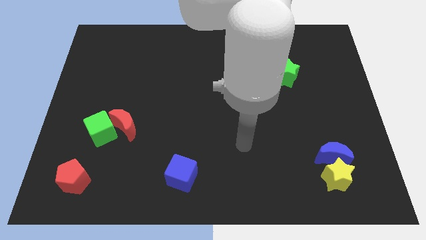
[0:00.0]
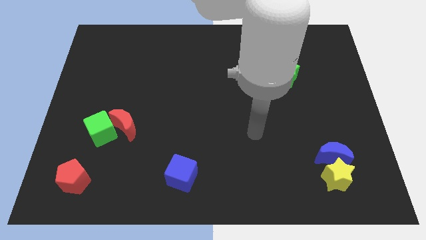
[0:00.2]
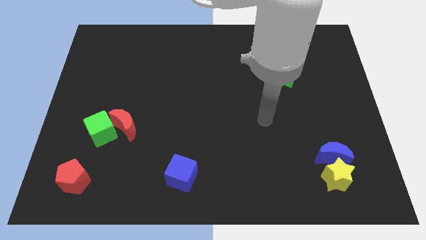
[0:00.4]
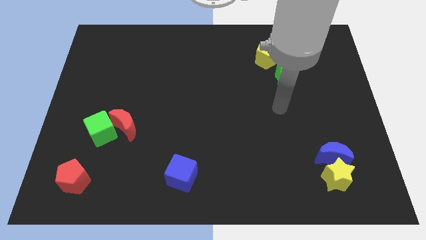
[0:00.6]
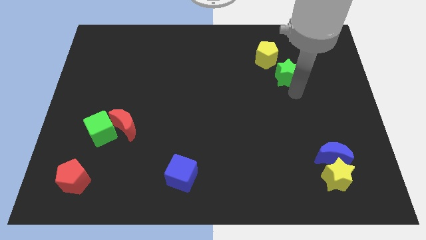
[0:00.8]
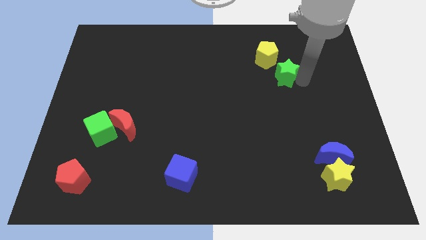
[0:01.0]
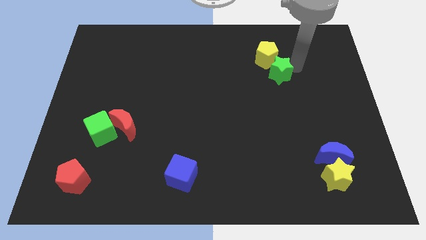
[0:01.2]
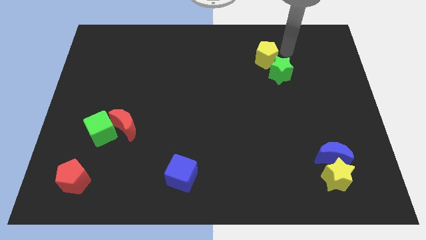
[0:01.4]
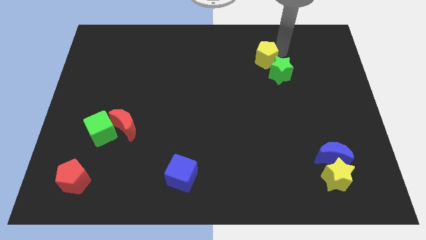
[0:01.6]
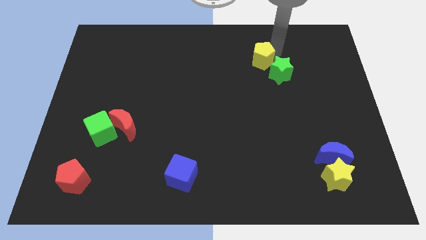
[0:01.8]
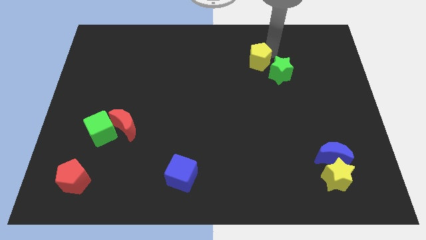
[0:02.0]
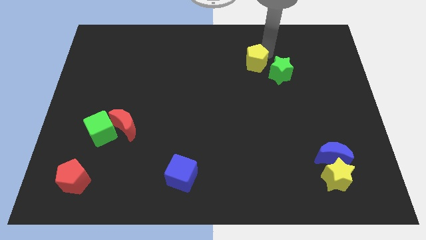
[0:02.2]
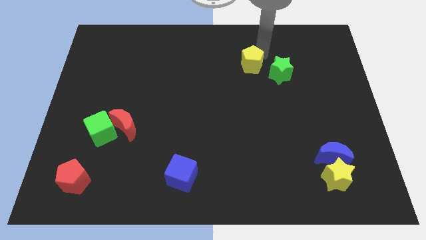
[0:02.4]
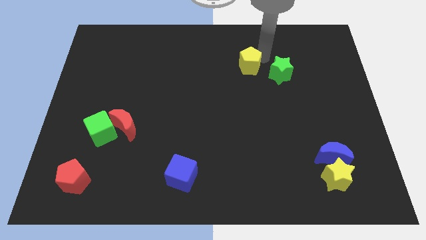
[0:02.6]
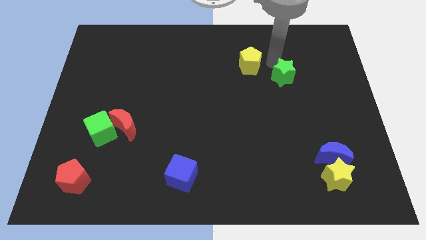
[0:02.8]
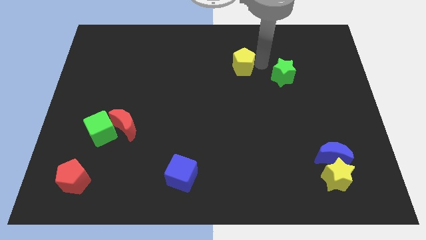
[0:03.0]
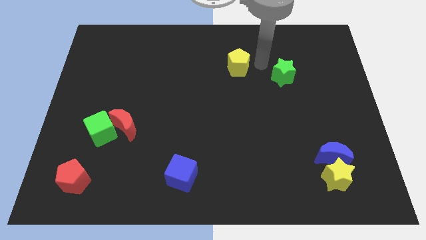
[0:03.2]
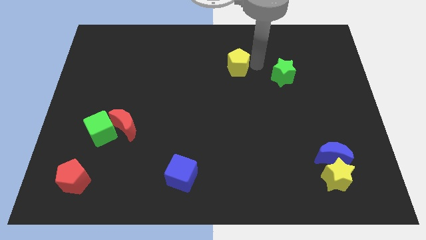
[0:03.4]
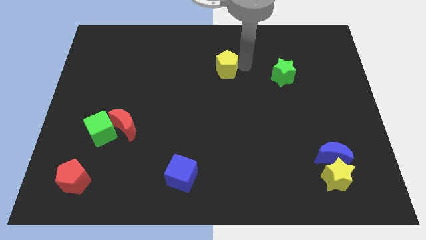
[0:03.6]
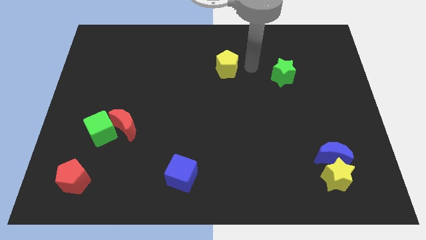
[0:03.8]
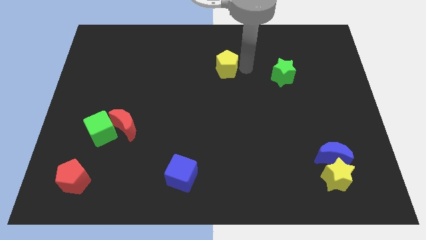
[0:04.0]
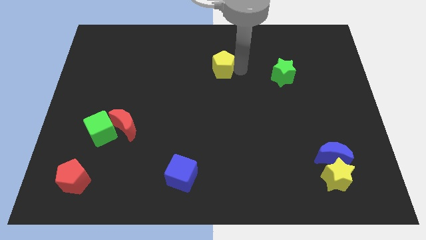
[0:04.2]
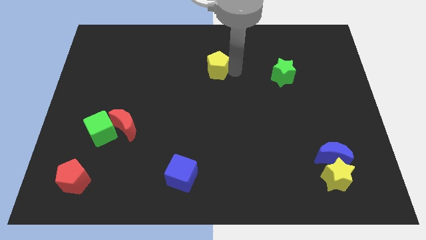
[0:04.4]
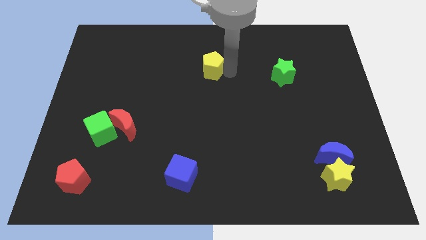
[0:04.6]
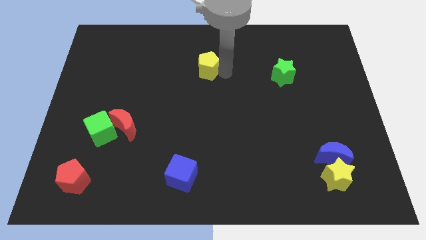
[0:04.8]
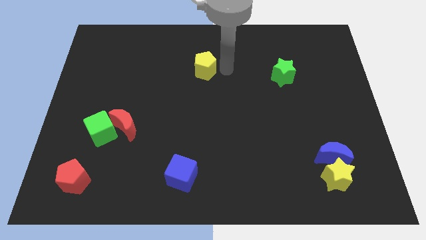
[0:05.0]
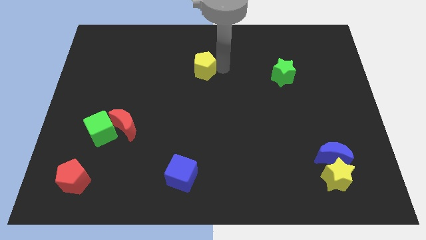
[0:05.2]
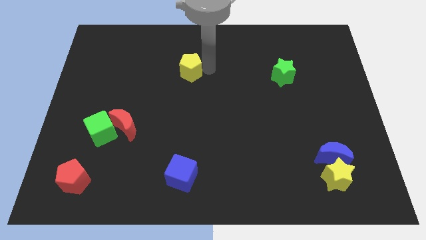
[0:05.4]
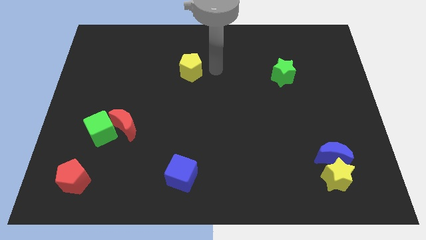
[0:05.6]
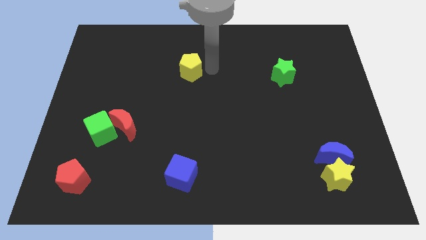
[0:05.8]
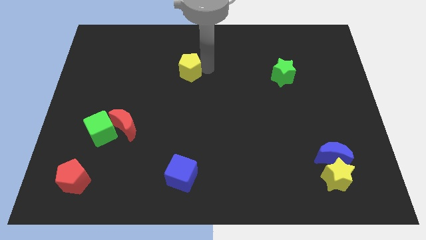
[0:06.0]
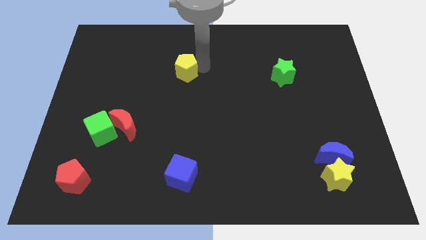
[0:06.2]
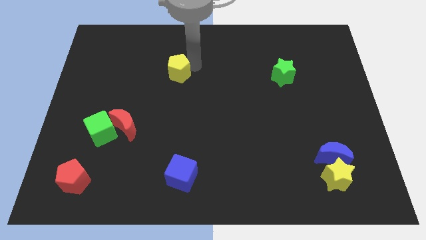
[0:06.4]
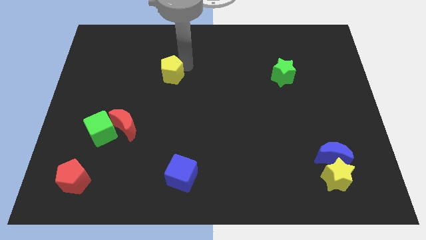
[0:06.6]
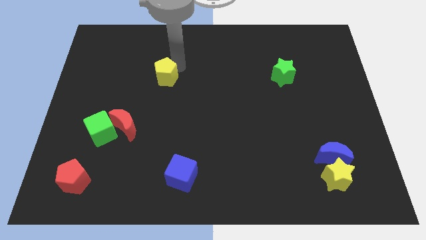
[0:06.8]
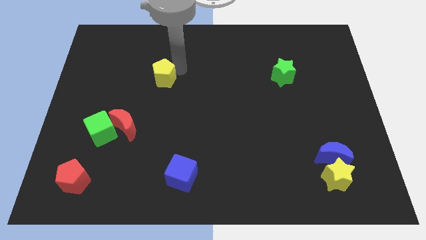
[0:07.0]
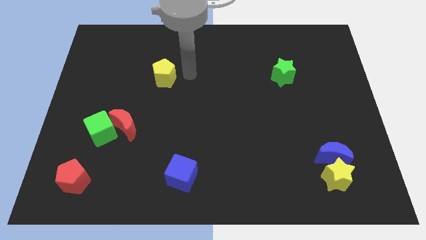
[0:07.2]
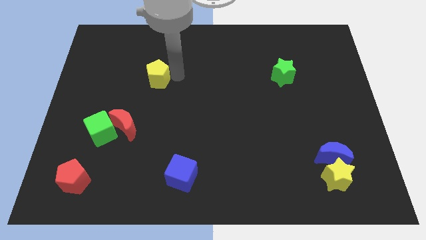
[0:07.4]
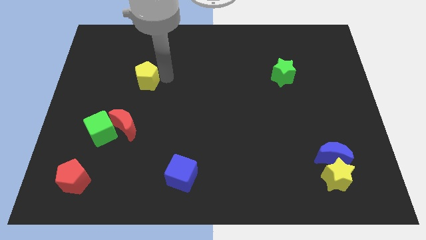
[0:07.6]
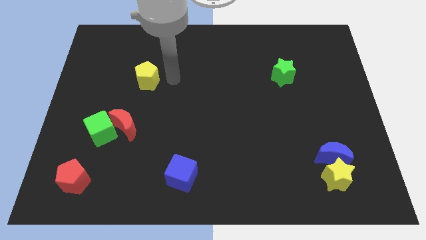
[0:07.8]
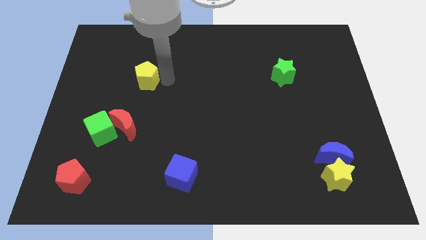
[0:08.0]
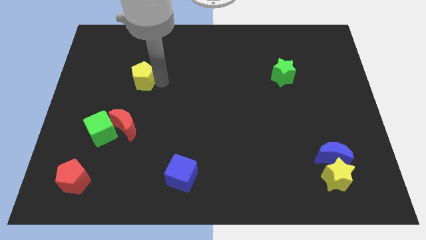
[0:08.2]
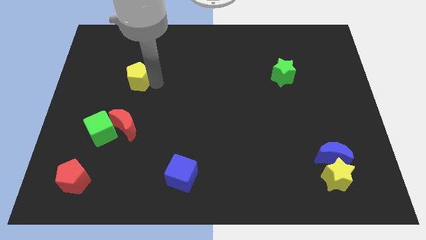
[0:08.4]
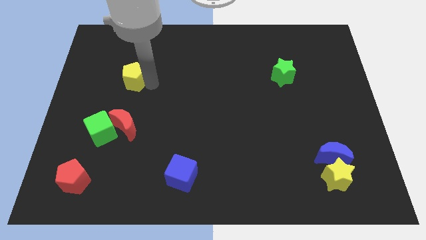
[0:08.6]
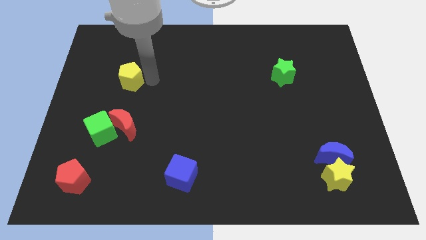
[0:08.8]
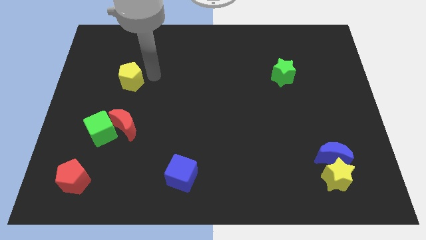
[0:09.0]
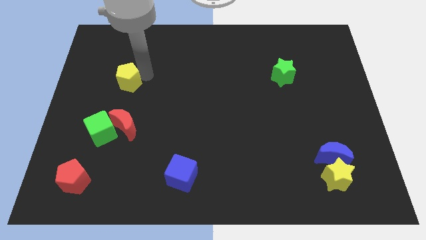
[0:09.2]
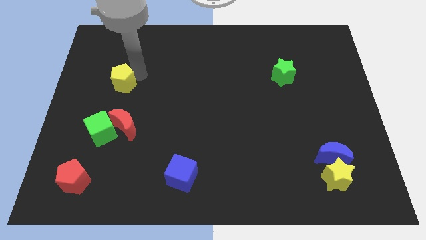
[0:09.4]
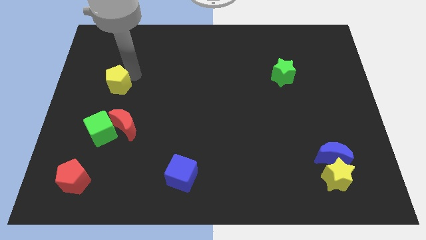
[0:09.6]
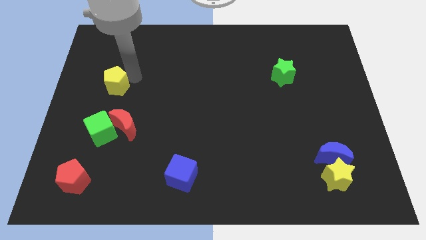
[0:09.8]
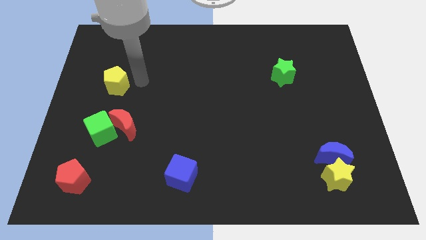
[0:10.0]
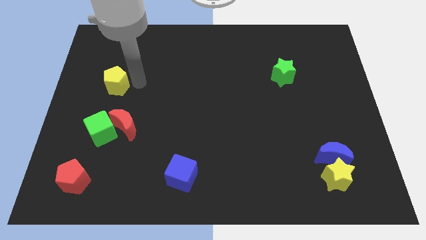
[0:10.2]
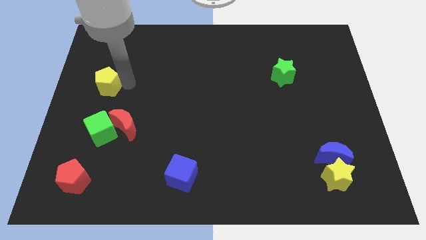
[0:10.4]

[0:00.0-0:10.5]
push the yellow pentagon to the left side of the board

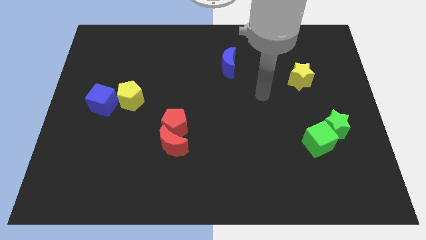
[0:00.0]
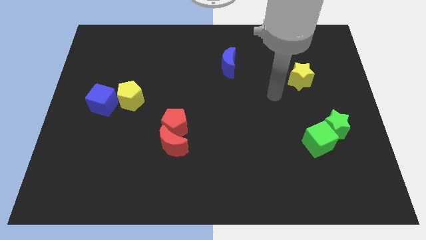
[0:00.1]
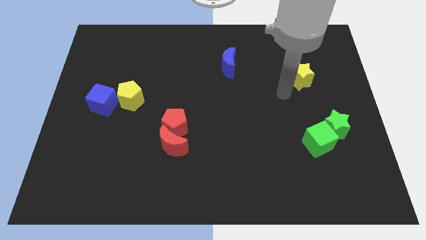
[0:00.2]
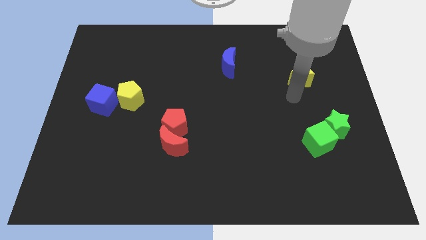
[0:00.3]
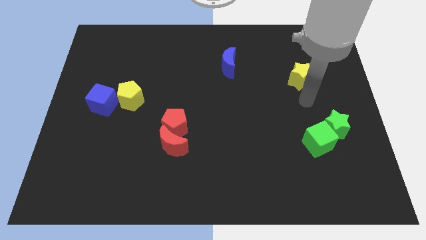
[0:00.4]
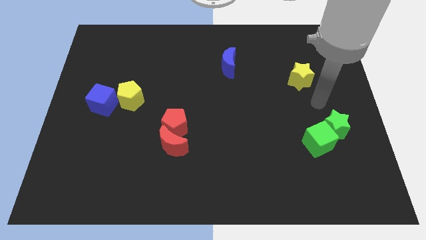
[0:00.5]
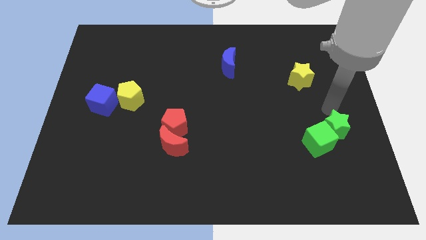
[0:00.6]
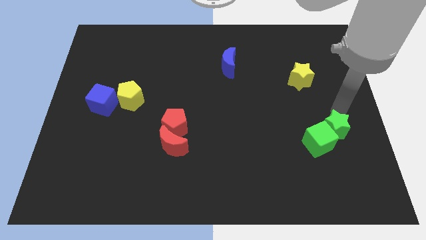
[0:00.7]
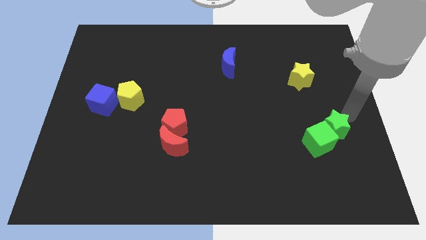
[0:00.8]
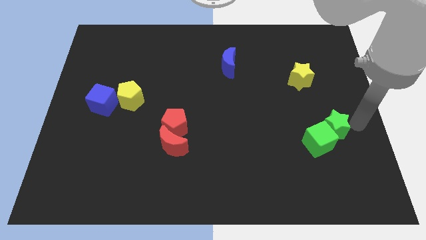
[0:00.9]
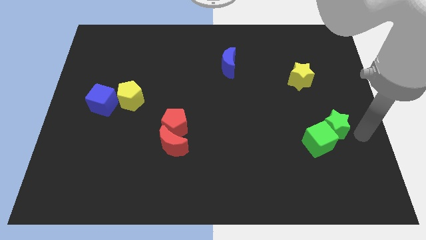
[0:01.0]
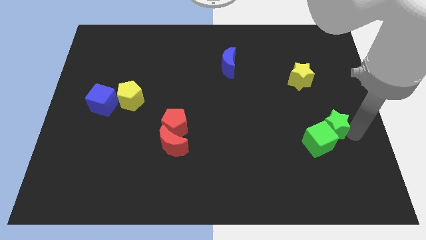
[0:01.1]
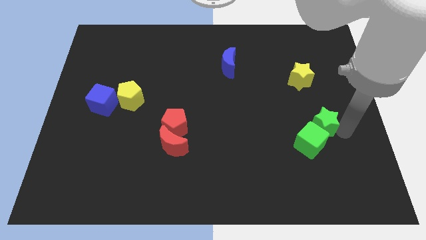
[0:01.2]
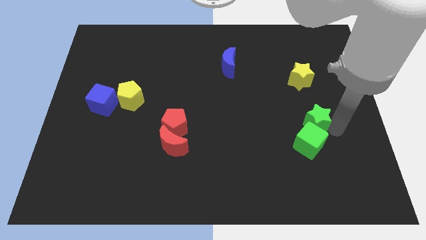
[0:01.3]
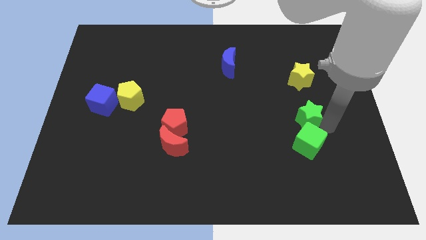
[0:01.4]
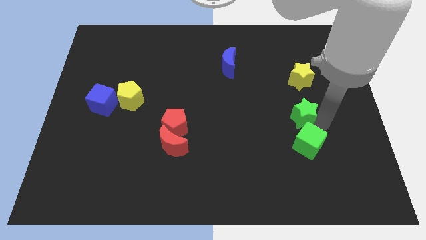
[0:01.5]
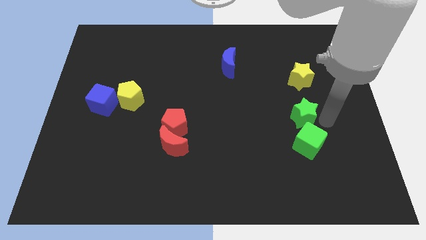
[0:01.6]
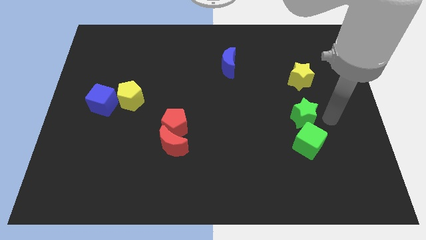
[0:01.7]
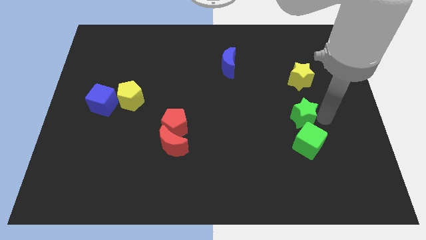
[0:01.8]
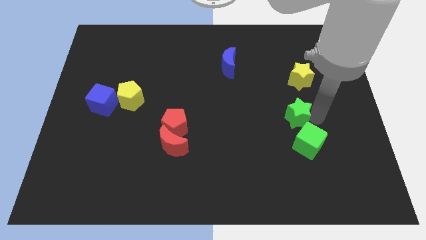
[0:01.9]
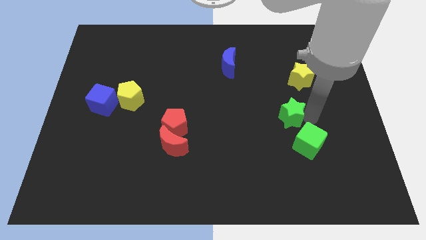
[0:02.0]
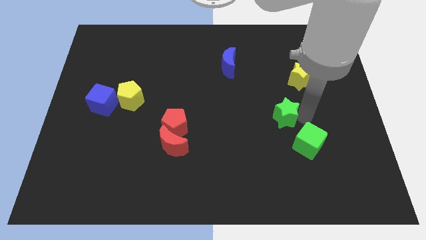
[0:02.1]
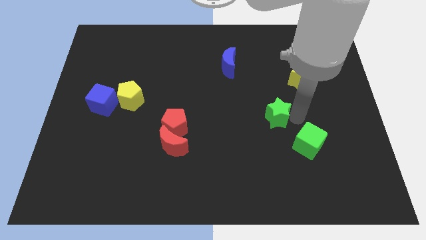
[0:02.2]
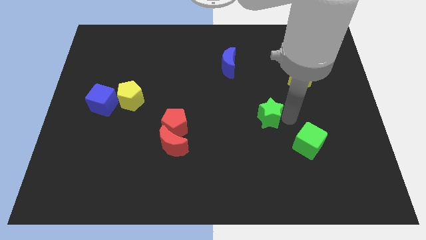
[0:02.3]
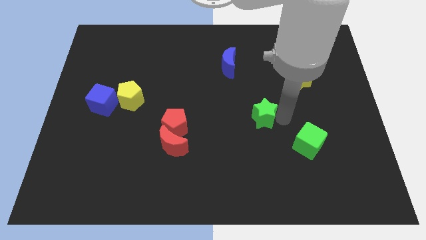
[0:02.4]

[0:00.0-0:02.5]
put the green star to the middle
